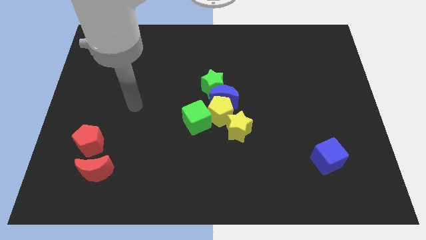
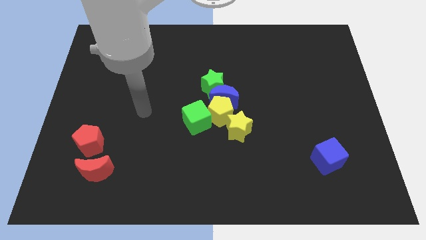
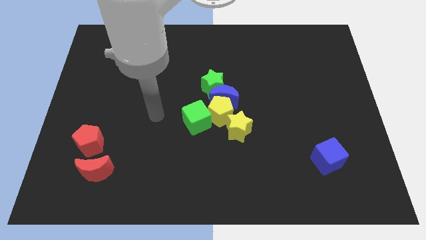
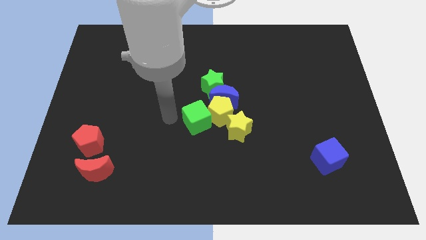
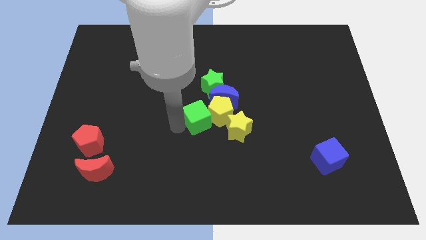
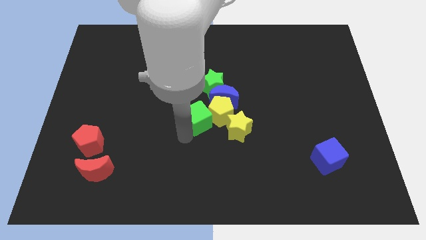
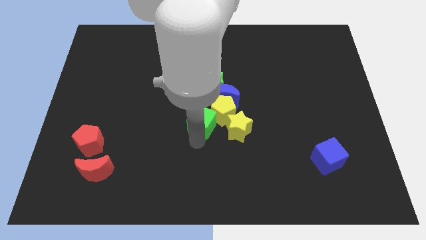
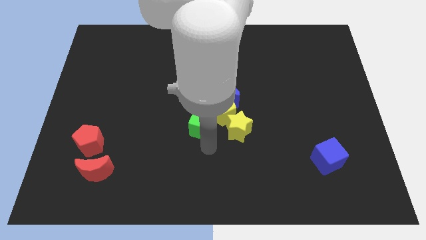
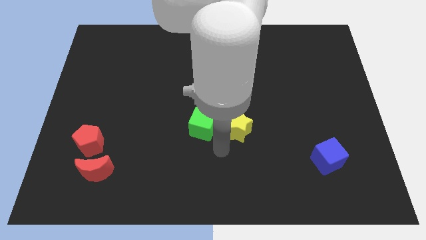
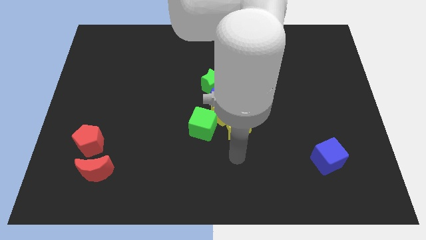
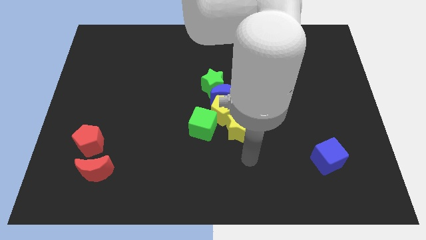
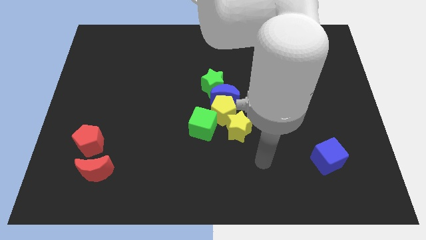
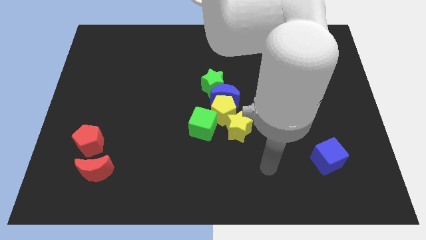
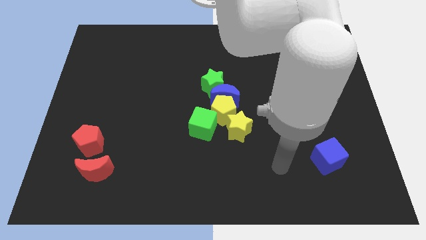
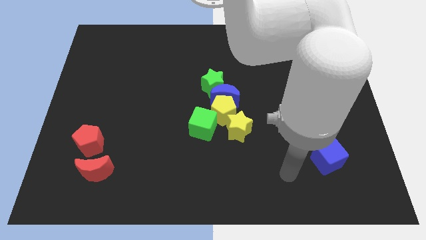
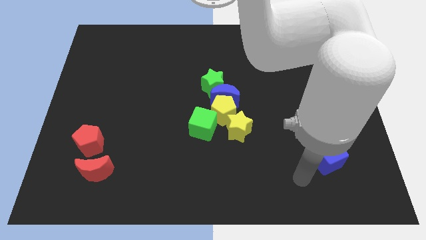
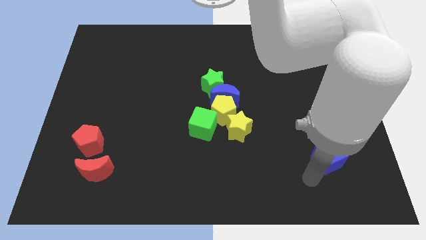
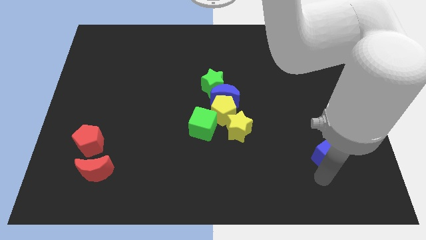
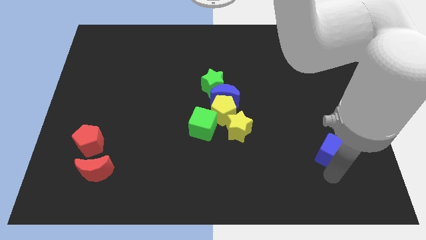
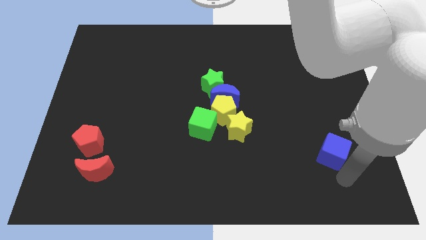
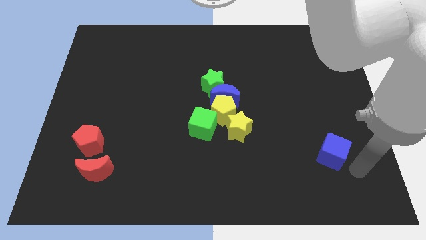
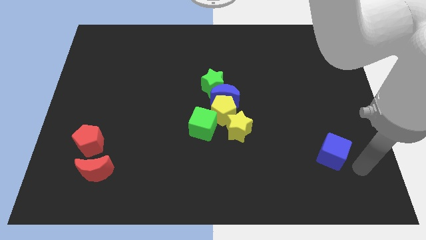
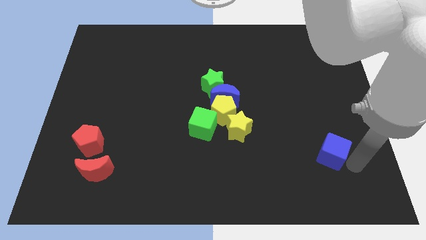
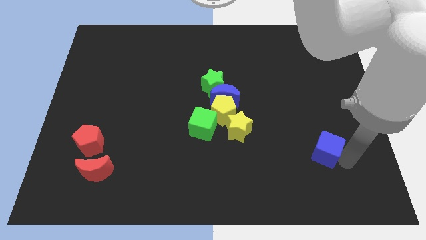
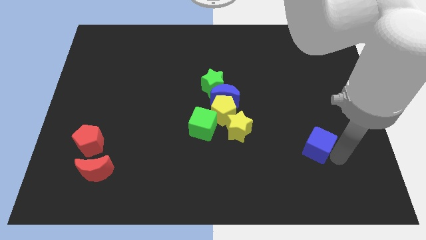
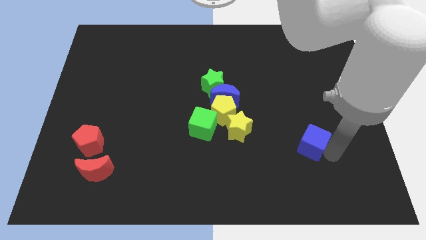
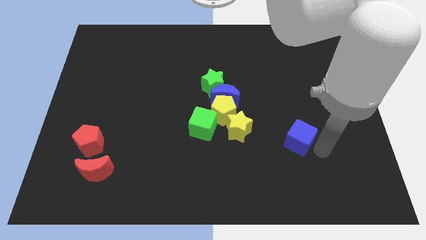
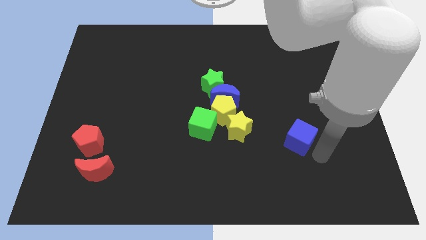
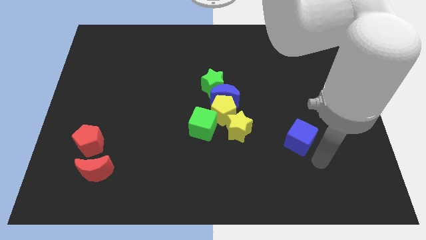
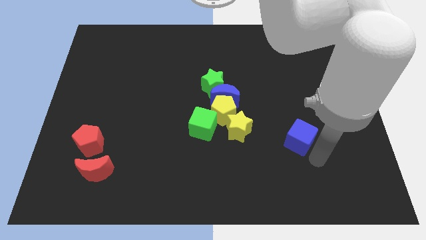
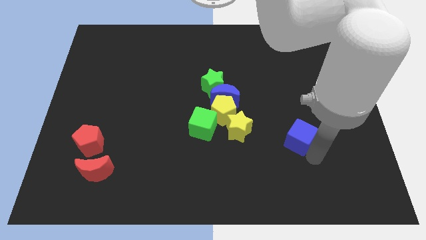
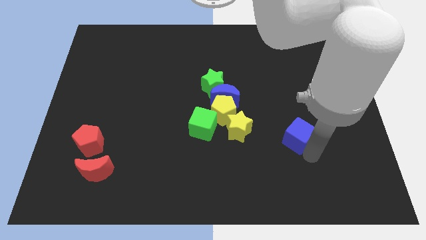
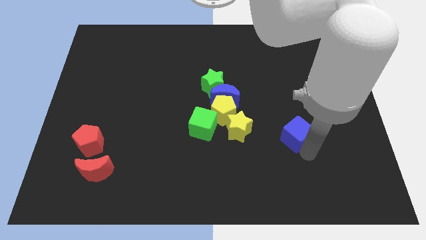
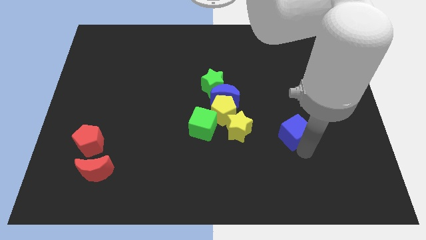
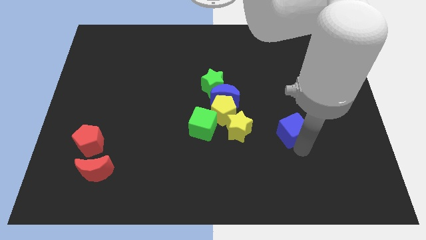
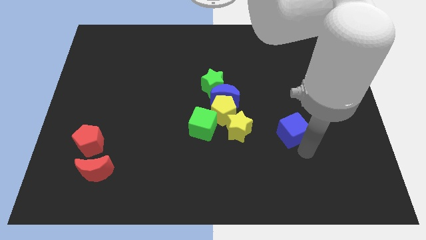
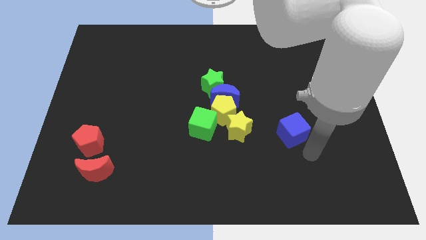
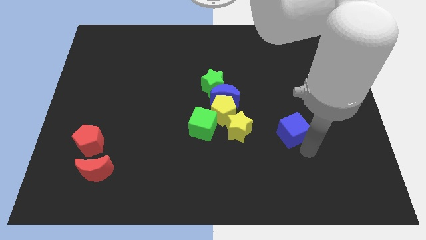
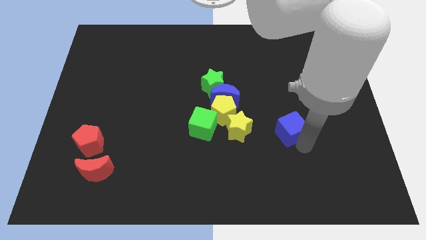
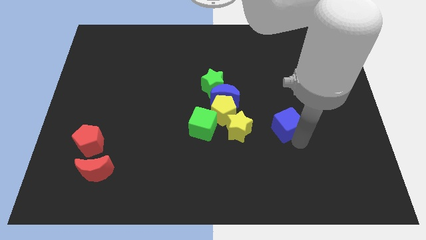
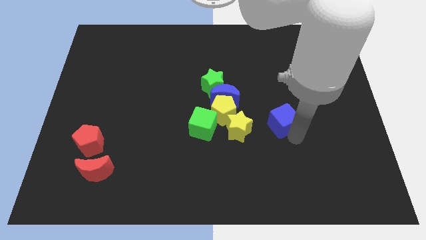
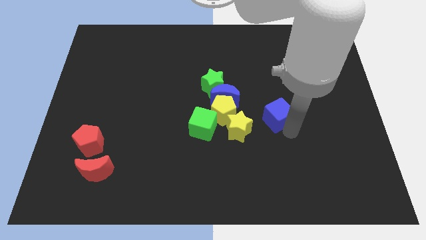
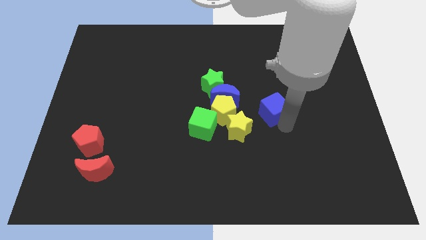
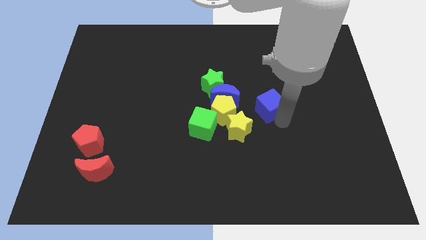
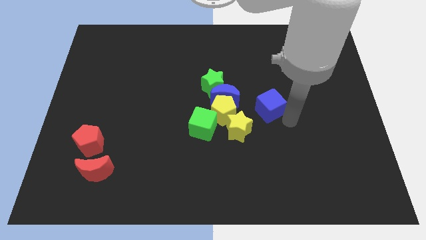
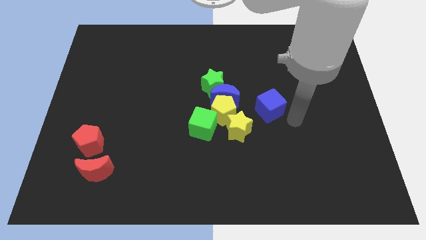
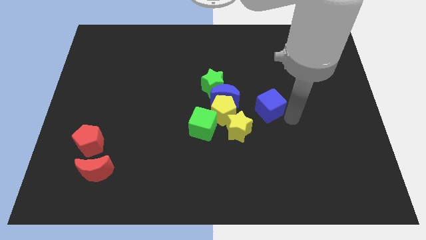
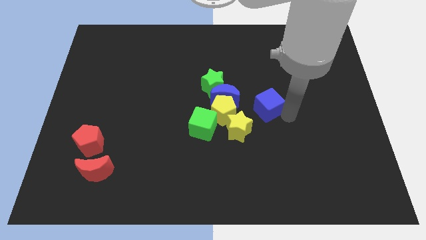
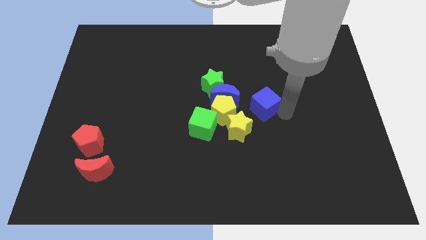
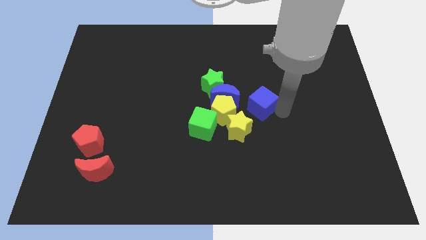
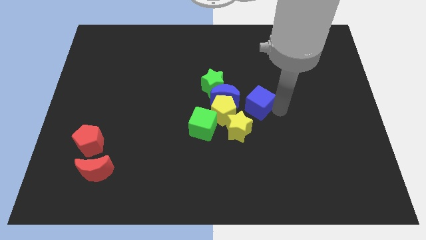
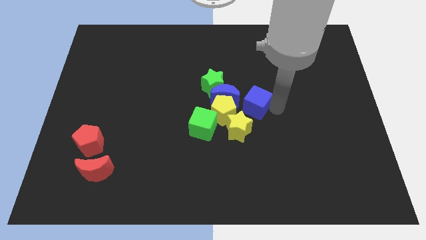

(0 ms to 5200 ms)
slide the blue cube above the yellow star

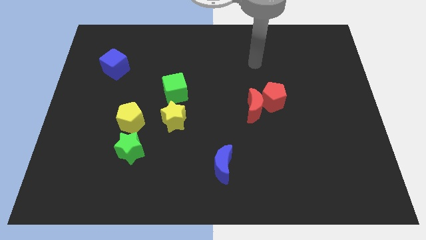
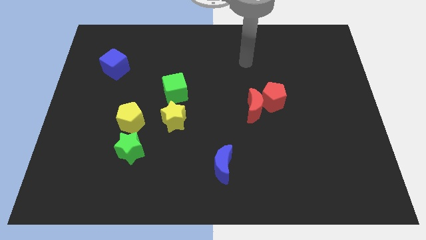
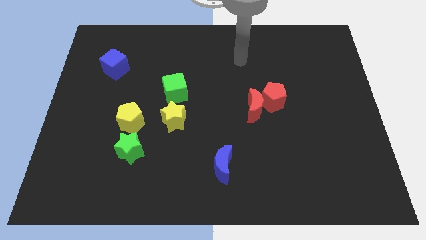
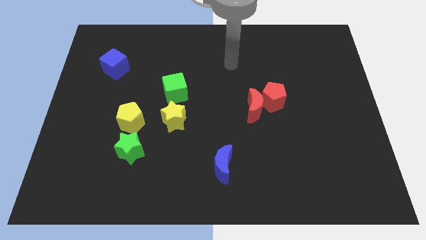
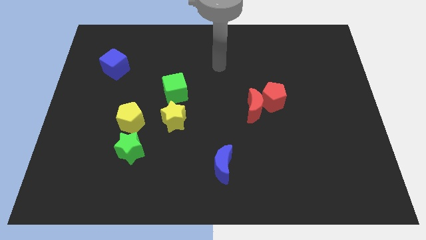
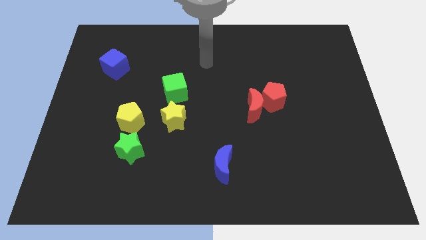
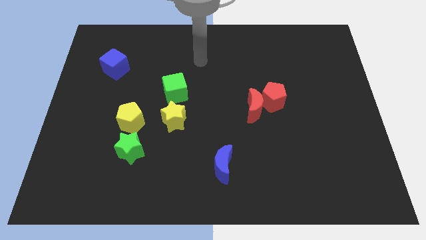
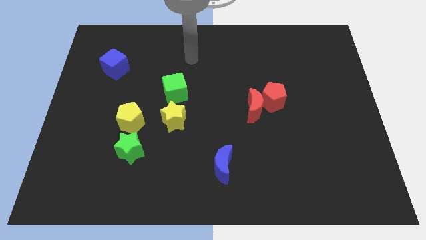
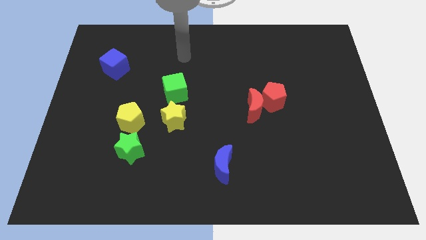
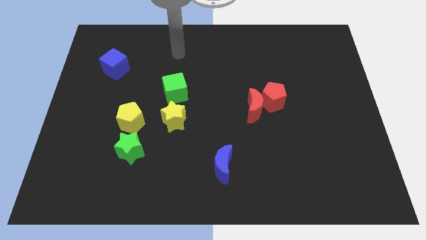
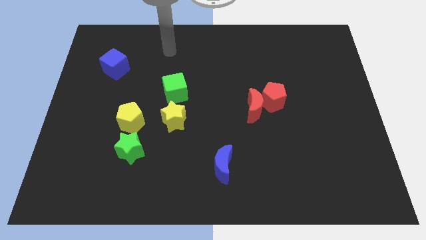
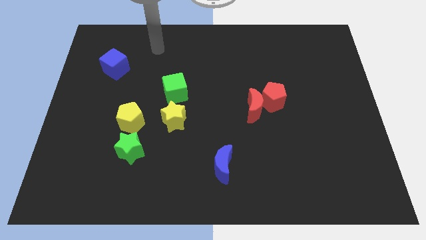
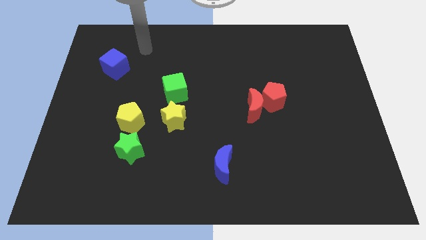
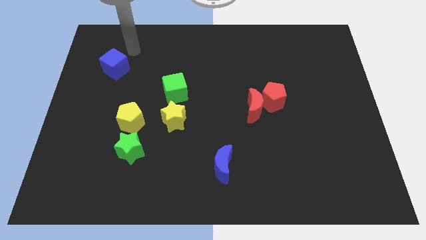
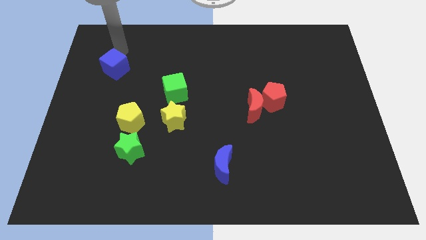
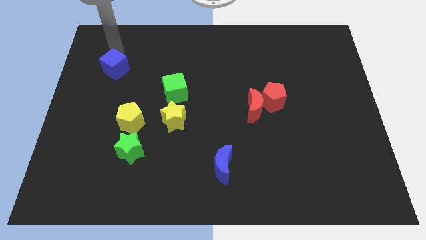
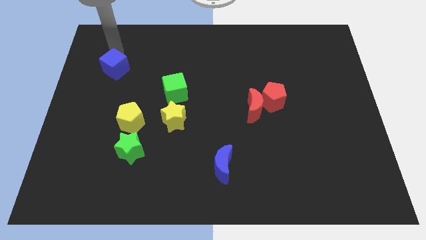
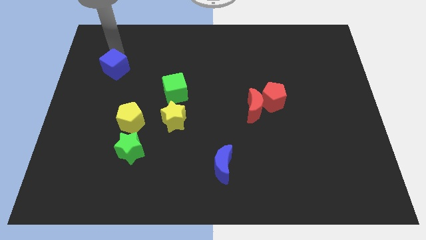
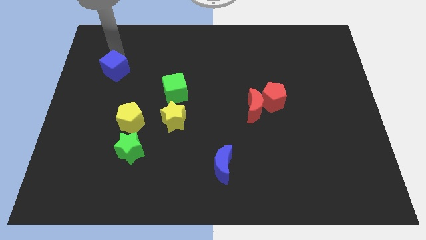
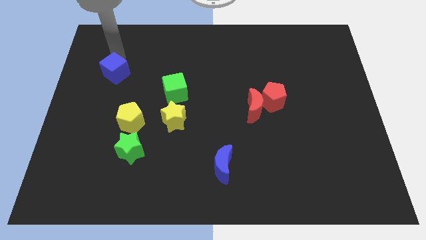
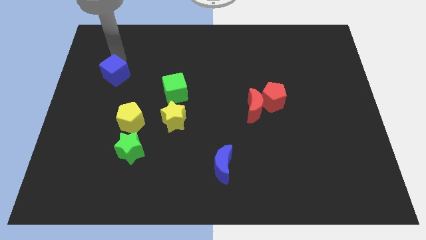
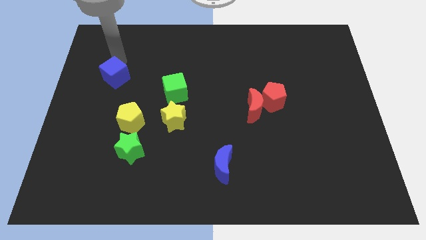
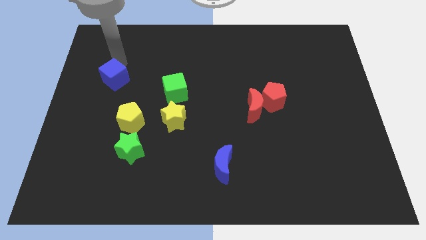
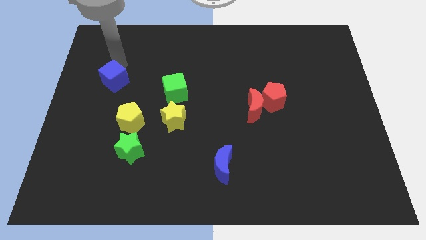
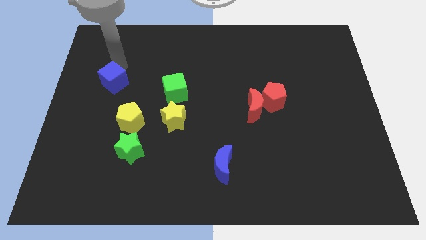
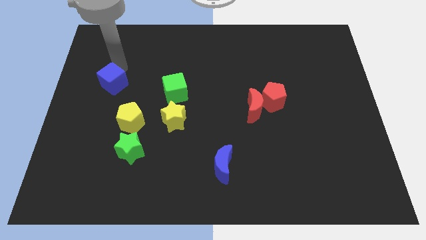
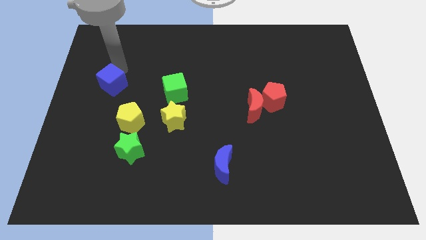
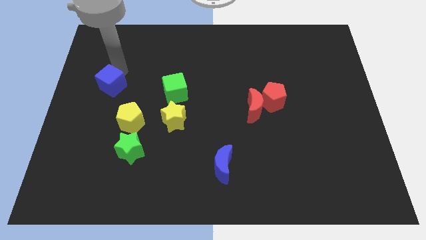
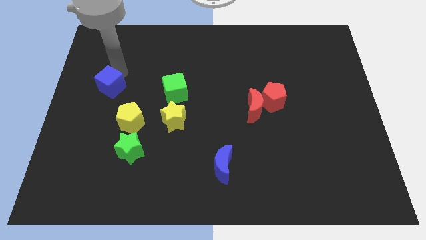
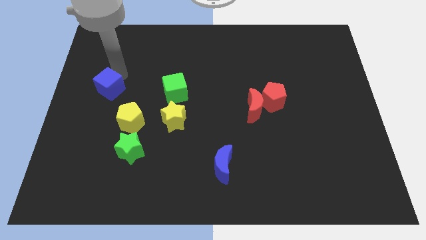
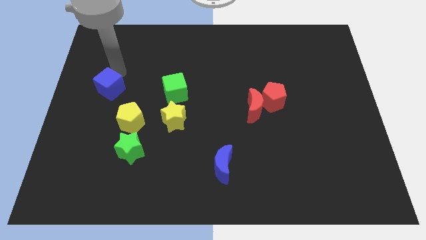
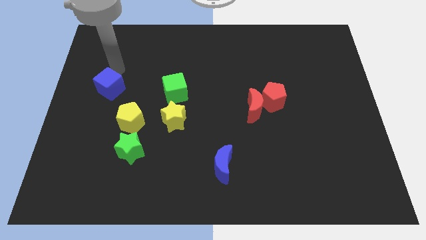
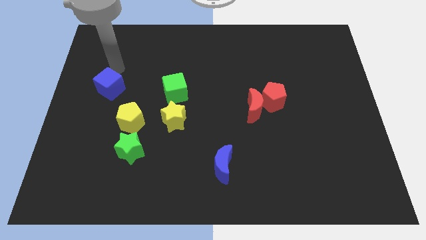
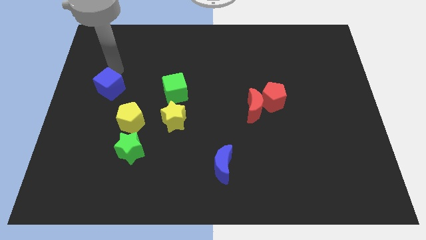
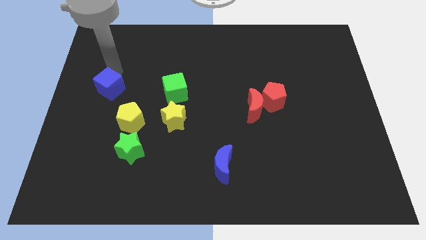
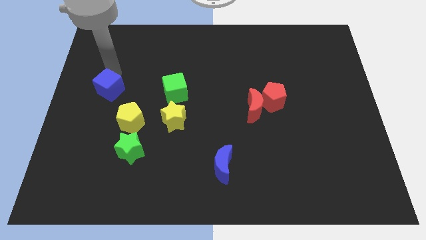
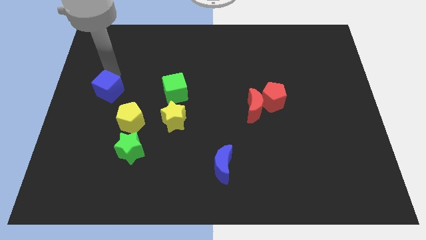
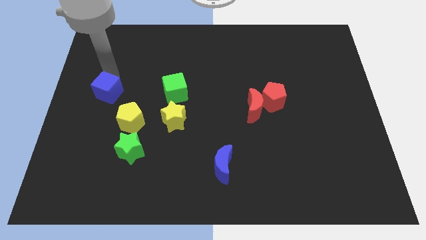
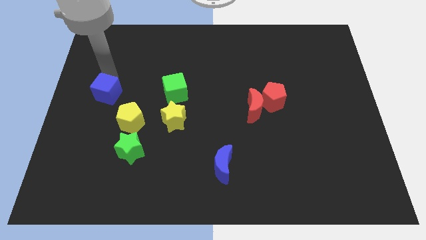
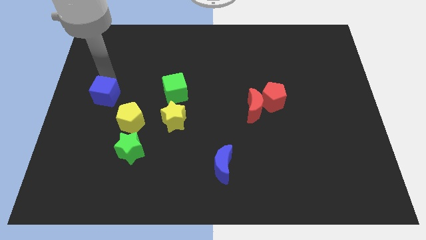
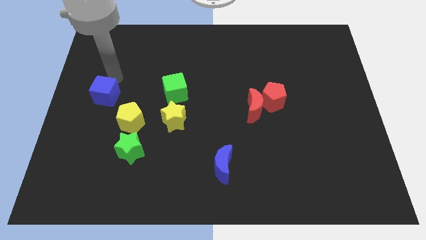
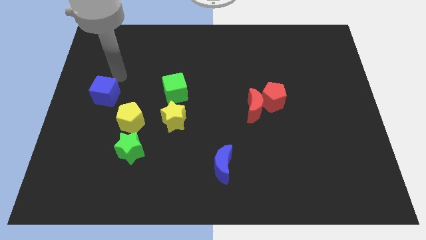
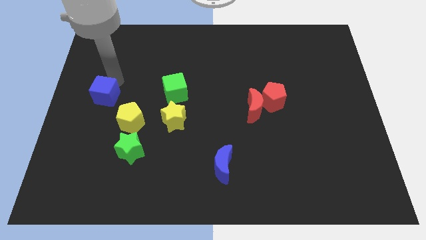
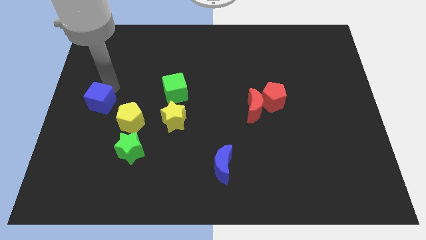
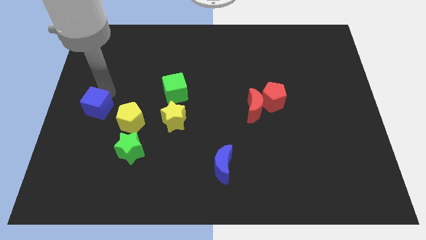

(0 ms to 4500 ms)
slide the blue cube to the left of the yellow pentagon
